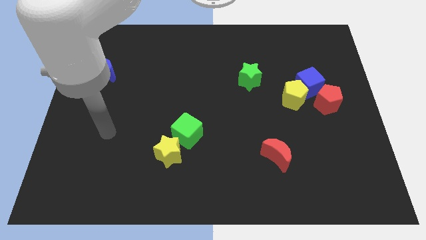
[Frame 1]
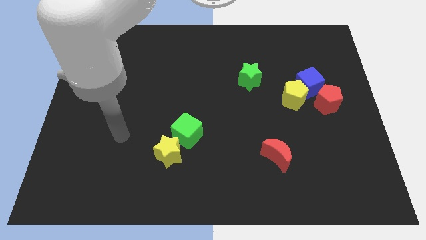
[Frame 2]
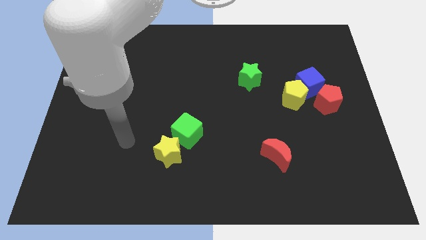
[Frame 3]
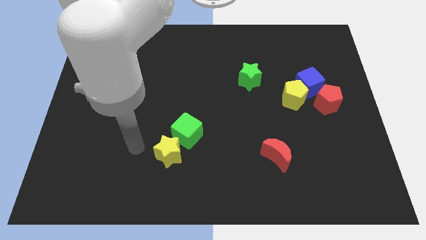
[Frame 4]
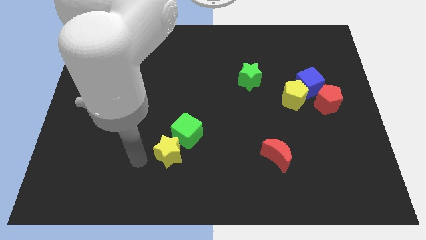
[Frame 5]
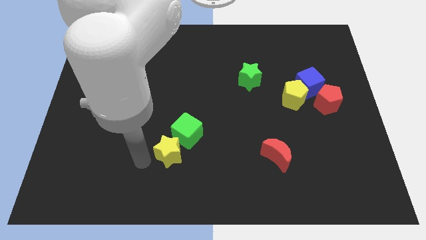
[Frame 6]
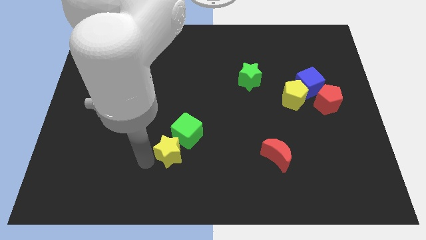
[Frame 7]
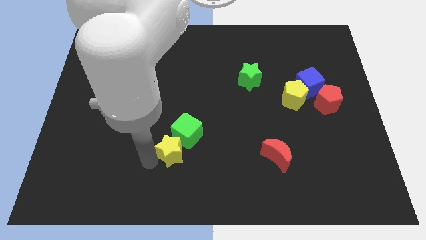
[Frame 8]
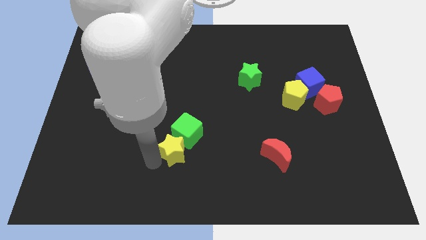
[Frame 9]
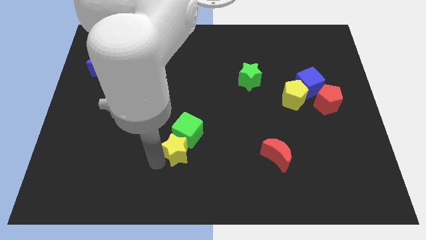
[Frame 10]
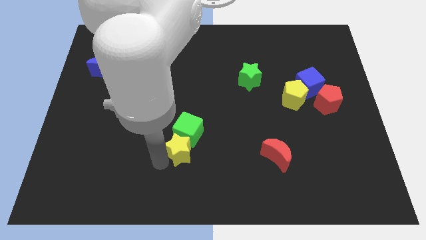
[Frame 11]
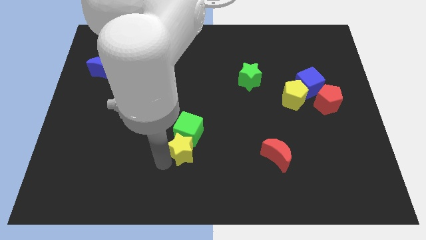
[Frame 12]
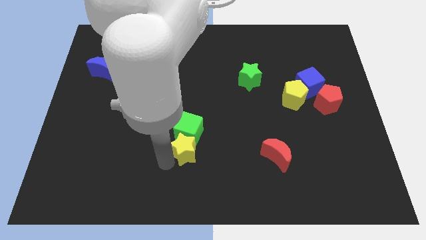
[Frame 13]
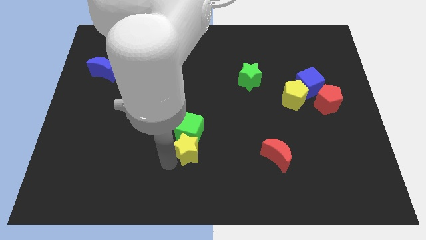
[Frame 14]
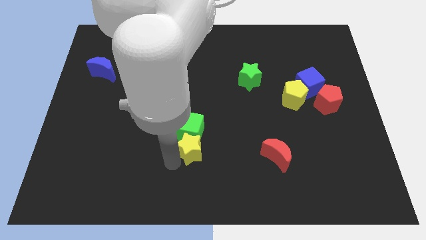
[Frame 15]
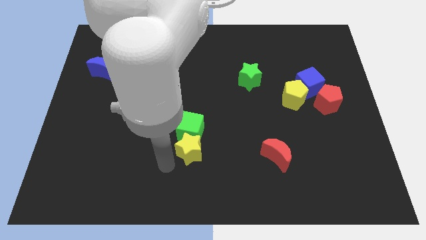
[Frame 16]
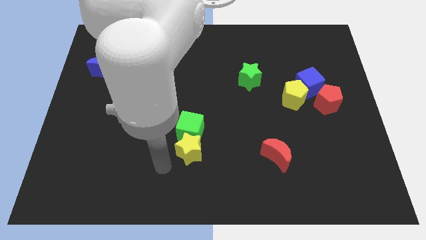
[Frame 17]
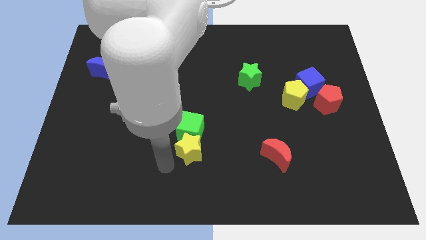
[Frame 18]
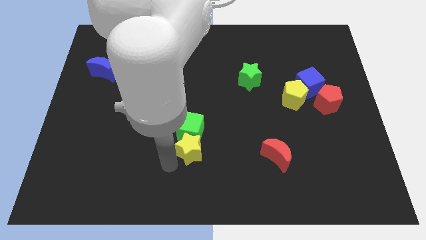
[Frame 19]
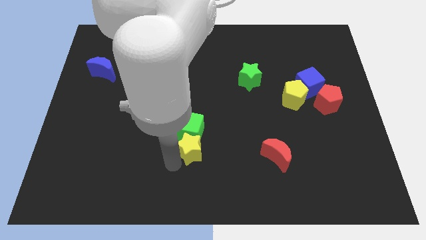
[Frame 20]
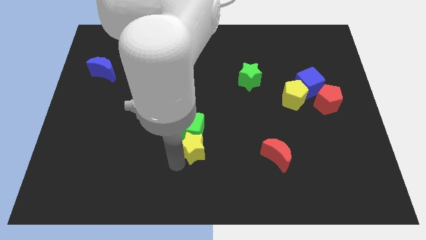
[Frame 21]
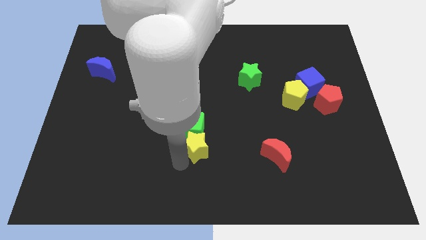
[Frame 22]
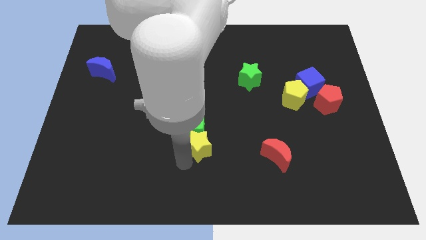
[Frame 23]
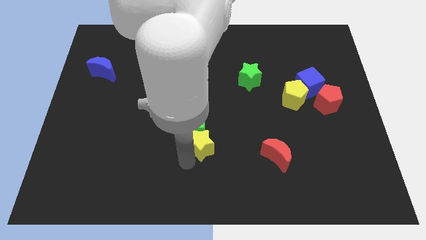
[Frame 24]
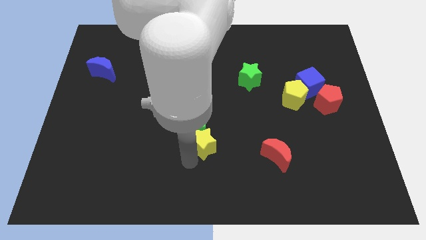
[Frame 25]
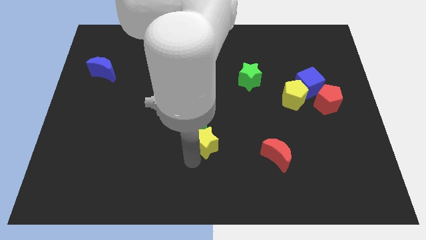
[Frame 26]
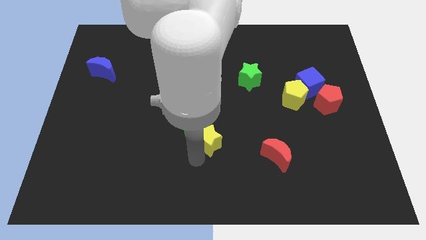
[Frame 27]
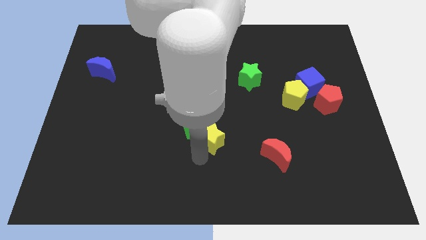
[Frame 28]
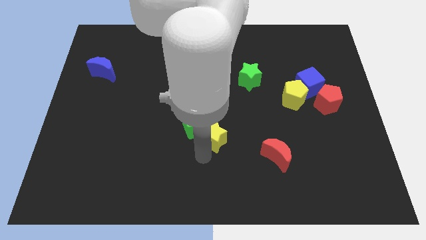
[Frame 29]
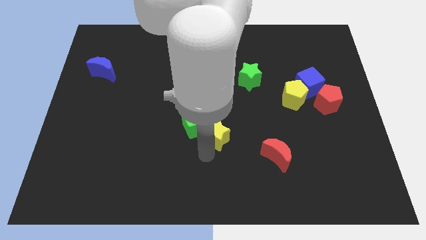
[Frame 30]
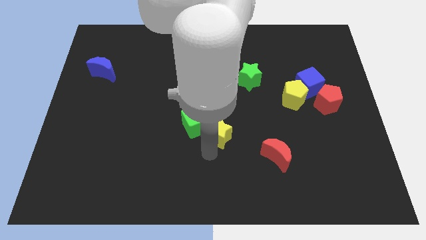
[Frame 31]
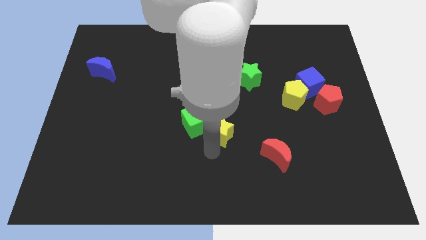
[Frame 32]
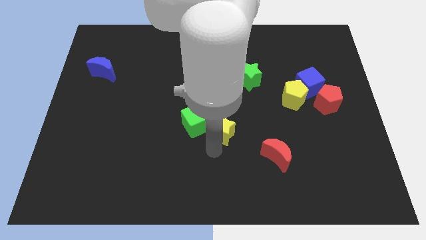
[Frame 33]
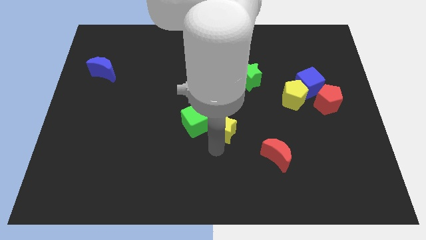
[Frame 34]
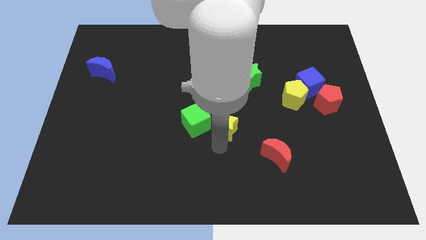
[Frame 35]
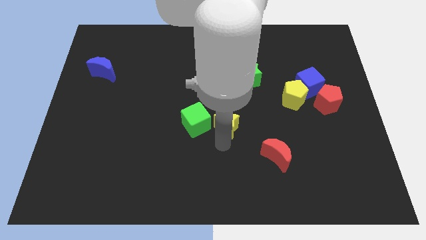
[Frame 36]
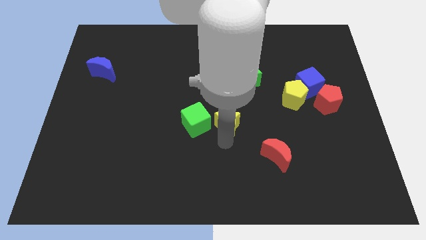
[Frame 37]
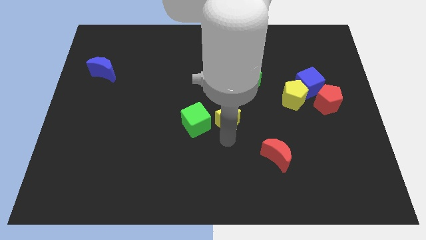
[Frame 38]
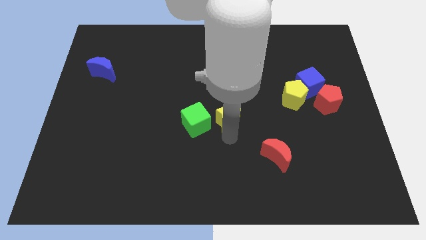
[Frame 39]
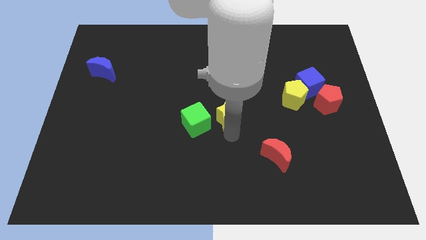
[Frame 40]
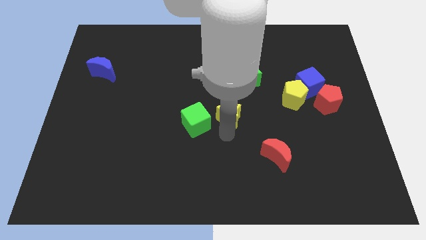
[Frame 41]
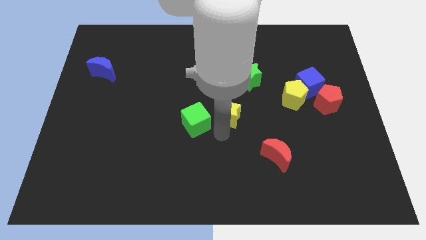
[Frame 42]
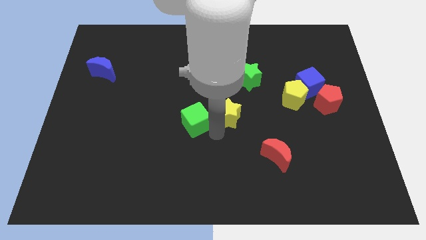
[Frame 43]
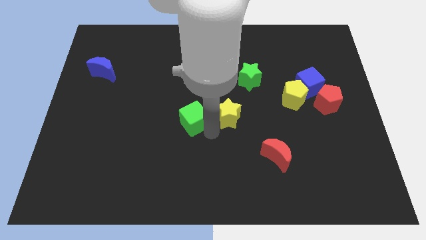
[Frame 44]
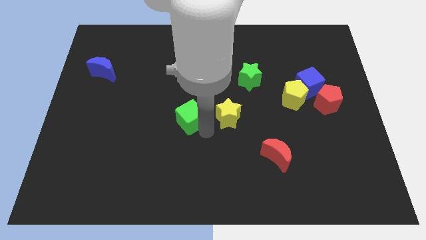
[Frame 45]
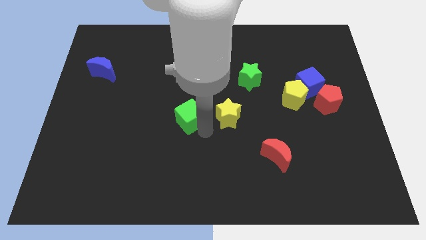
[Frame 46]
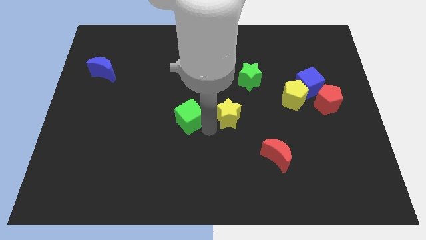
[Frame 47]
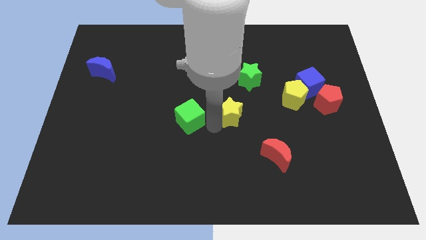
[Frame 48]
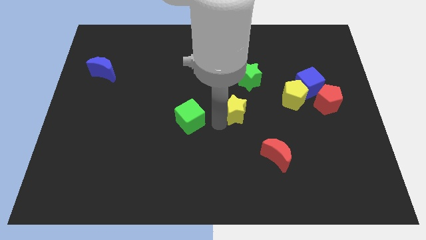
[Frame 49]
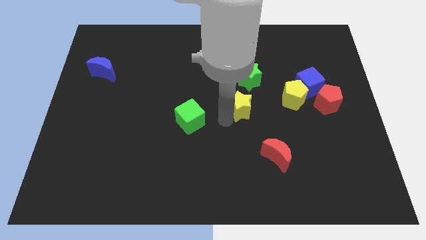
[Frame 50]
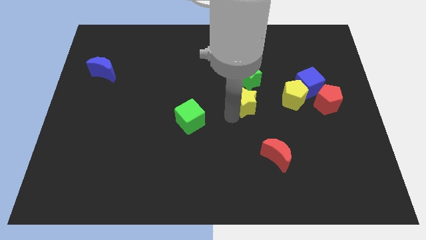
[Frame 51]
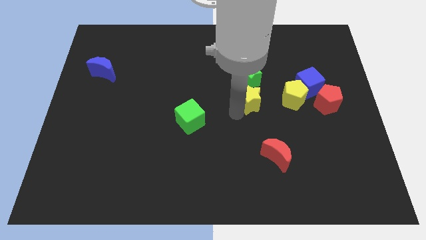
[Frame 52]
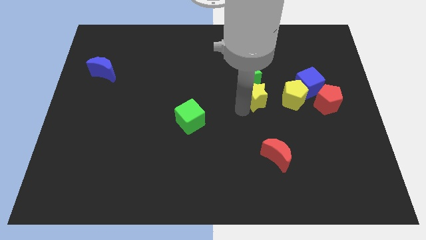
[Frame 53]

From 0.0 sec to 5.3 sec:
push the yellow star just left of the blue cube

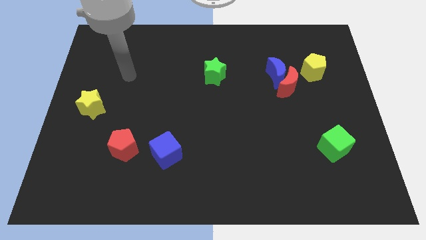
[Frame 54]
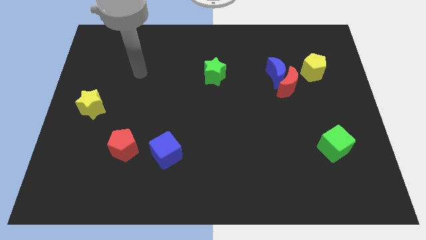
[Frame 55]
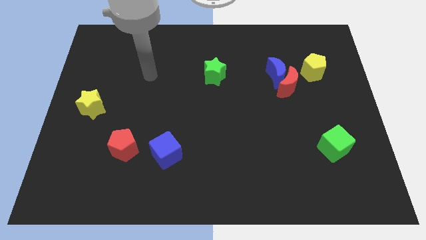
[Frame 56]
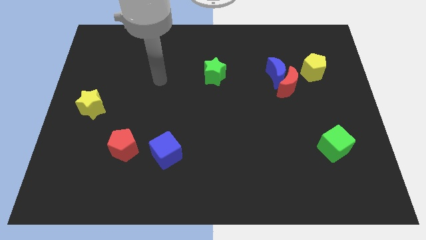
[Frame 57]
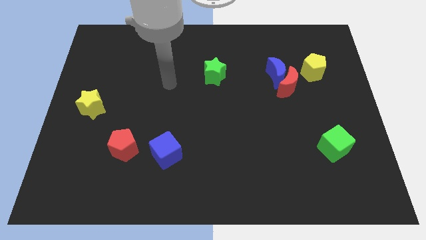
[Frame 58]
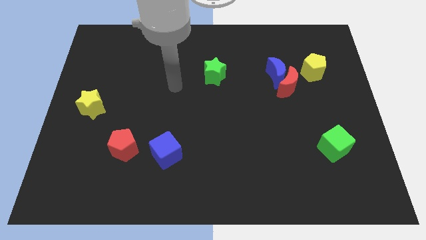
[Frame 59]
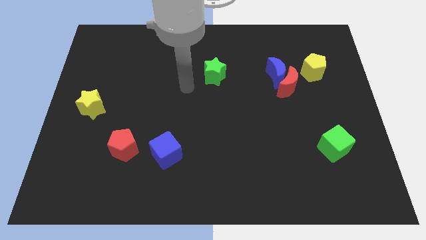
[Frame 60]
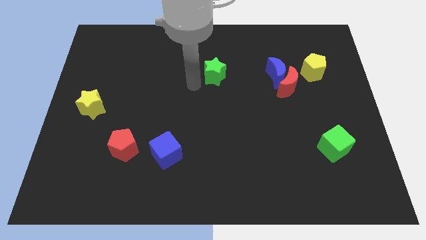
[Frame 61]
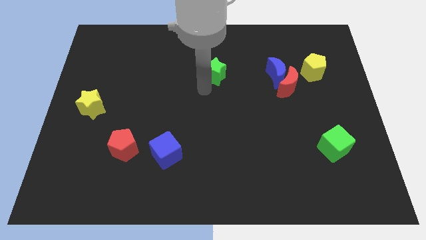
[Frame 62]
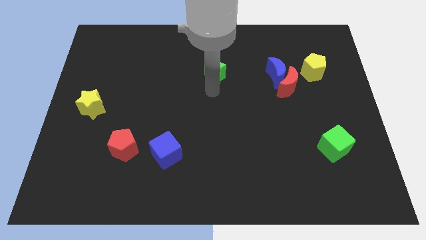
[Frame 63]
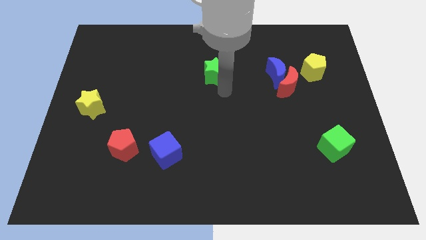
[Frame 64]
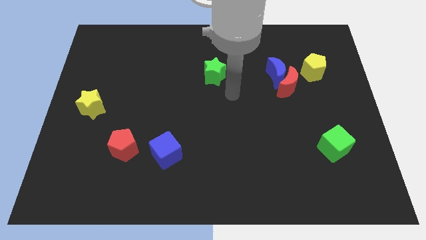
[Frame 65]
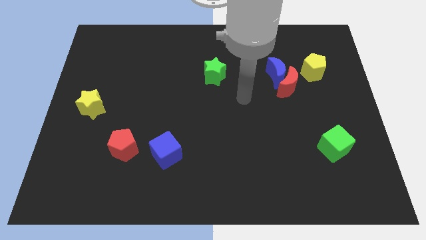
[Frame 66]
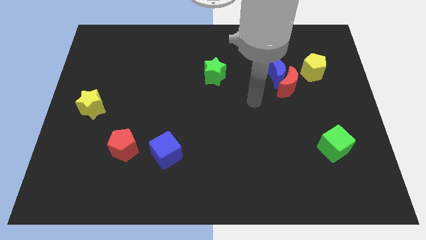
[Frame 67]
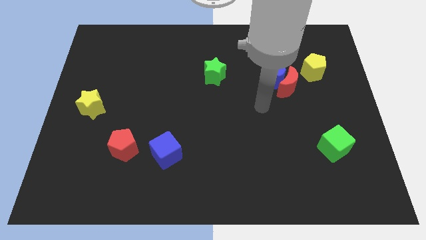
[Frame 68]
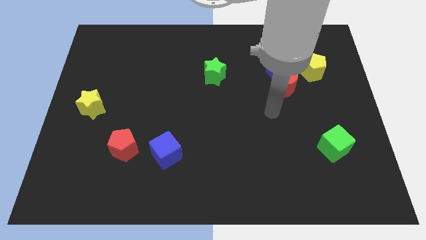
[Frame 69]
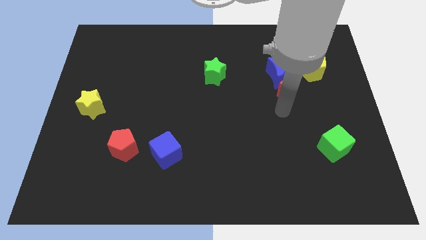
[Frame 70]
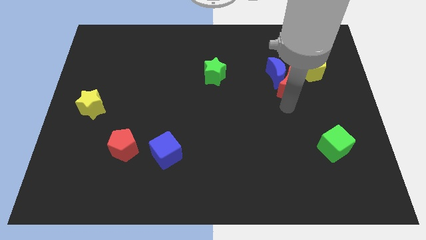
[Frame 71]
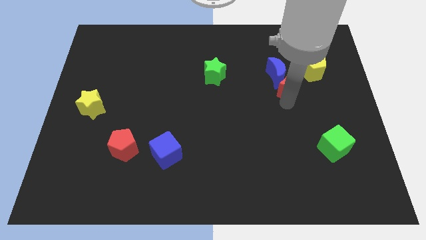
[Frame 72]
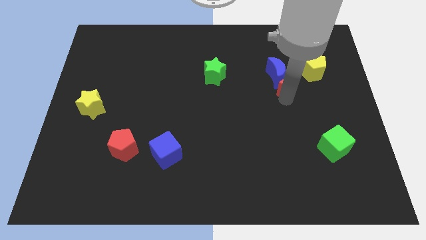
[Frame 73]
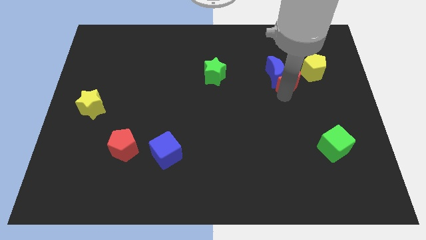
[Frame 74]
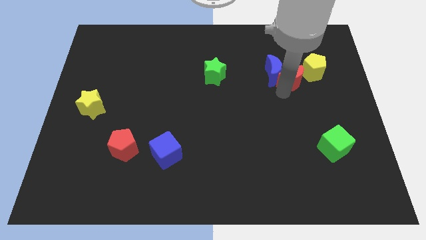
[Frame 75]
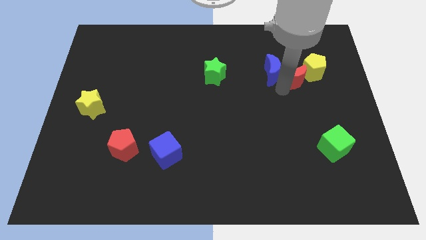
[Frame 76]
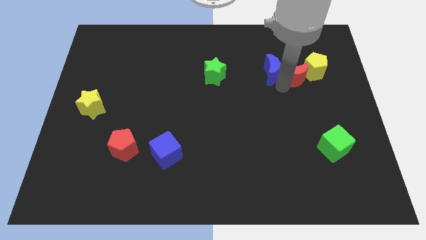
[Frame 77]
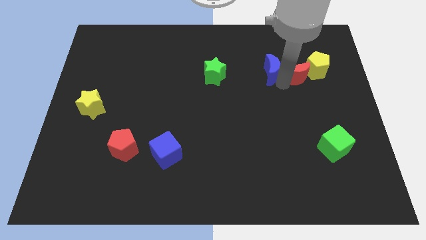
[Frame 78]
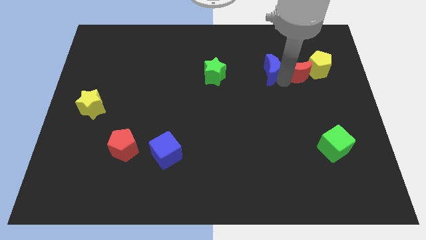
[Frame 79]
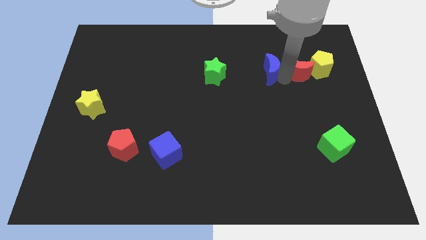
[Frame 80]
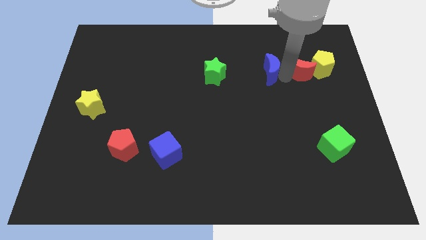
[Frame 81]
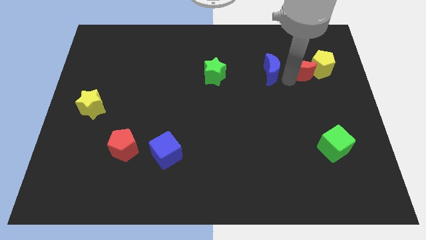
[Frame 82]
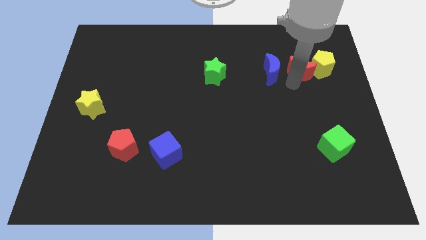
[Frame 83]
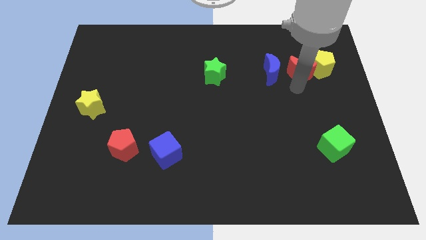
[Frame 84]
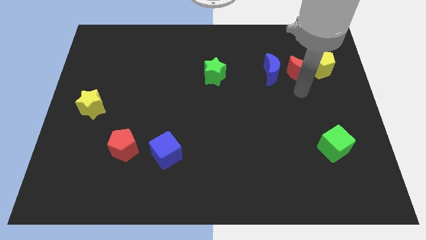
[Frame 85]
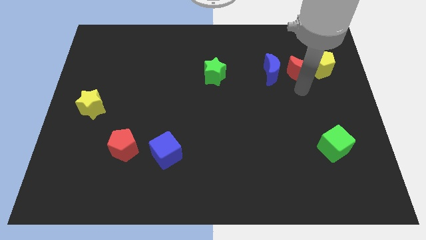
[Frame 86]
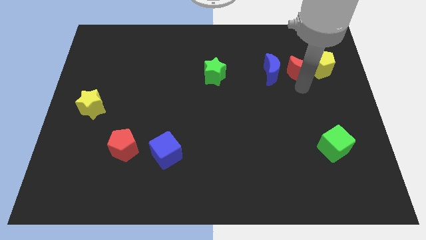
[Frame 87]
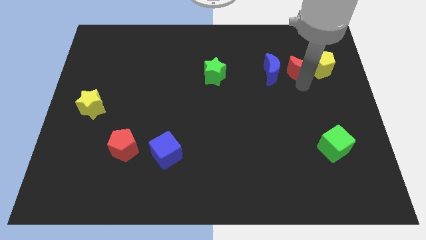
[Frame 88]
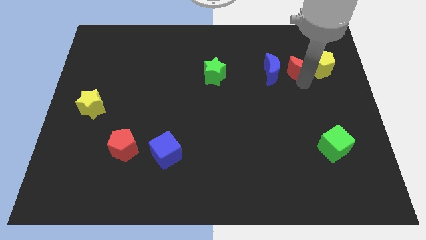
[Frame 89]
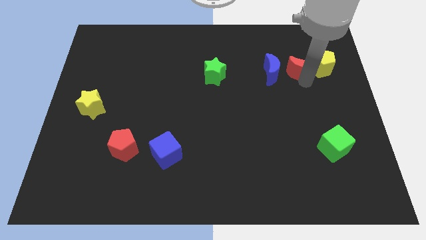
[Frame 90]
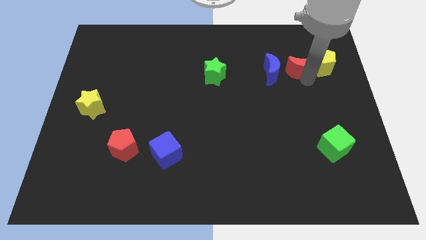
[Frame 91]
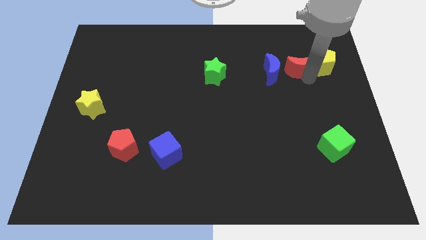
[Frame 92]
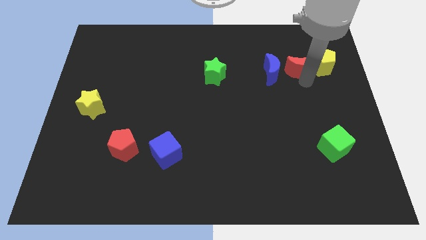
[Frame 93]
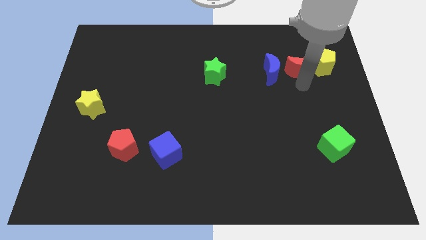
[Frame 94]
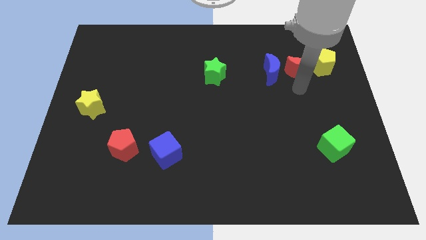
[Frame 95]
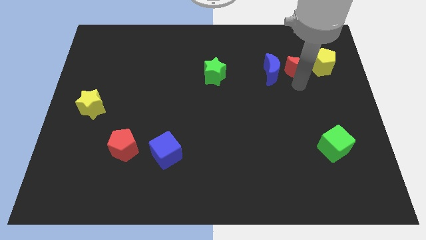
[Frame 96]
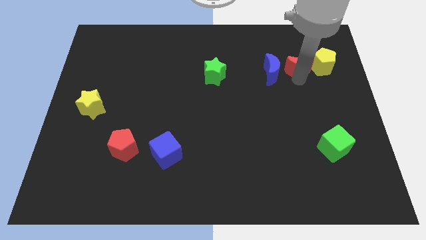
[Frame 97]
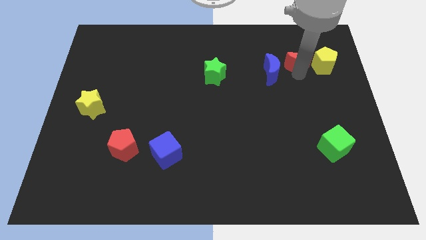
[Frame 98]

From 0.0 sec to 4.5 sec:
move the red moon to the top left side of the yellow pentagon
